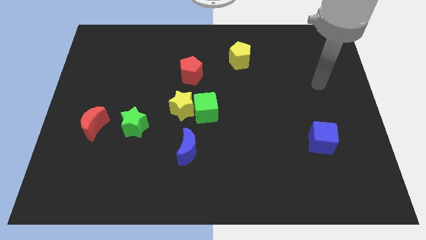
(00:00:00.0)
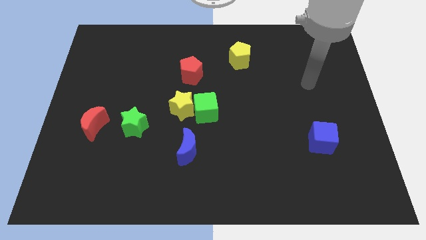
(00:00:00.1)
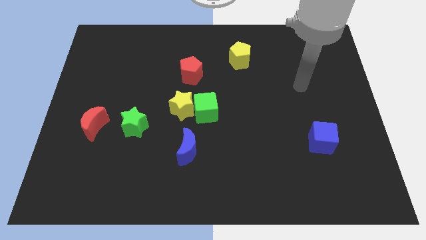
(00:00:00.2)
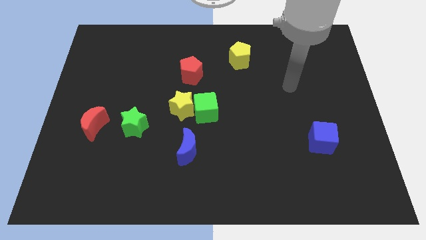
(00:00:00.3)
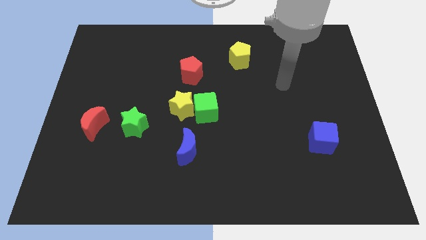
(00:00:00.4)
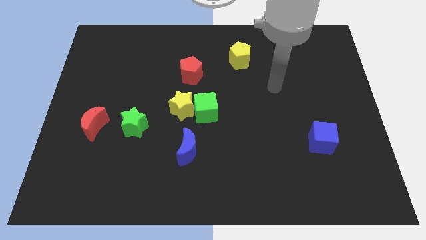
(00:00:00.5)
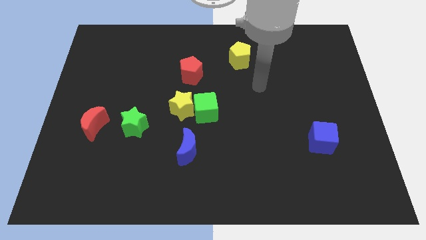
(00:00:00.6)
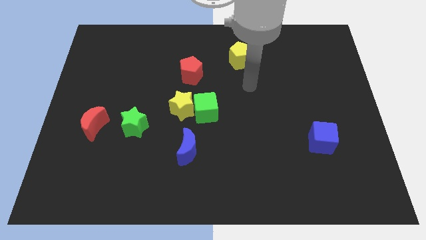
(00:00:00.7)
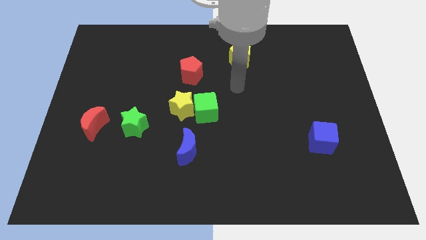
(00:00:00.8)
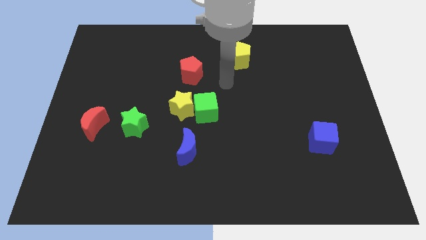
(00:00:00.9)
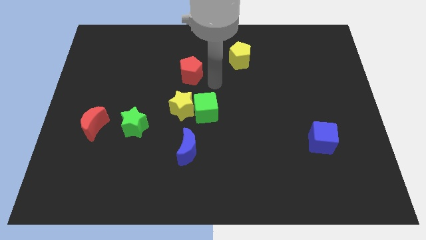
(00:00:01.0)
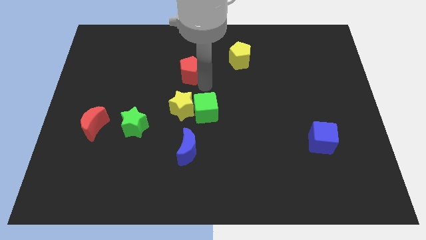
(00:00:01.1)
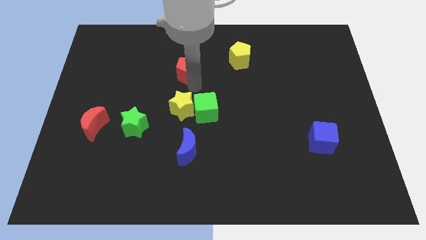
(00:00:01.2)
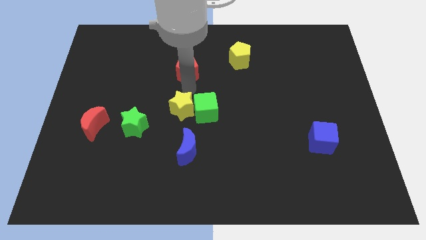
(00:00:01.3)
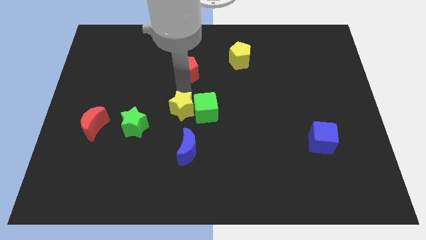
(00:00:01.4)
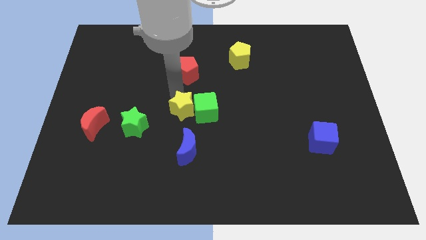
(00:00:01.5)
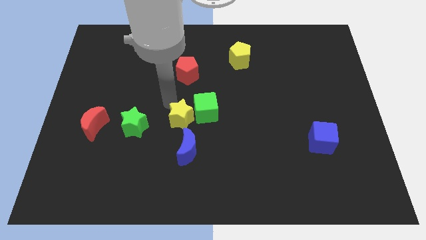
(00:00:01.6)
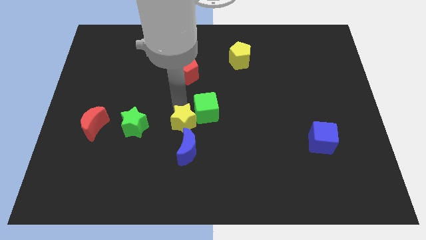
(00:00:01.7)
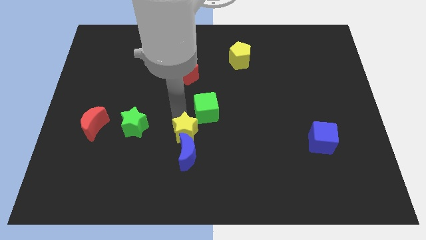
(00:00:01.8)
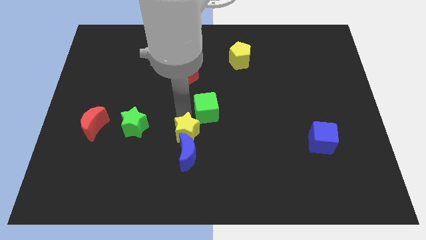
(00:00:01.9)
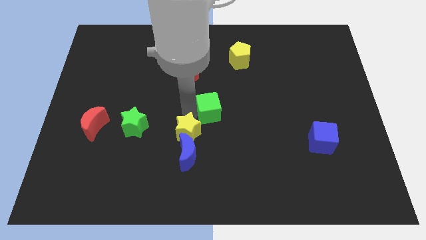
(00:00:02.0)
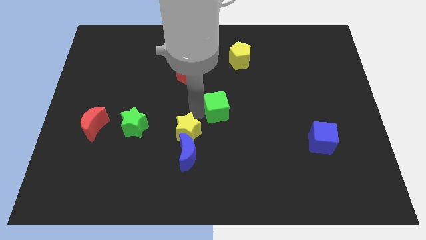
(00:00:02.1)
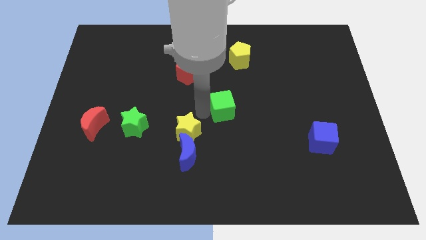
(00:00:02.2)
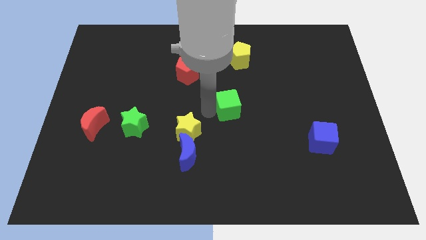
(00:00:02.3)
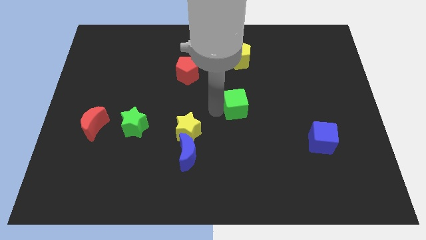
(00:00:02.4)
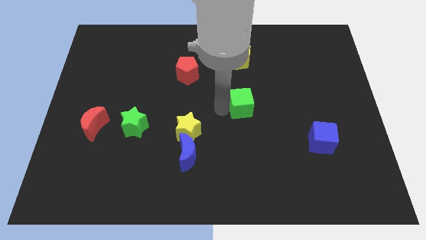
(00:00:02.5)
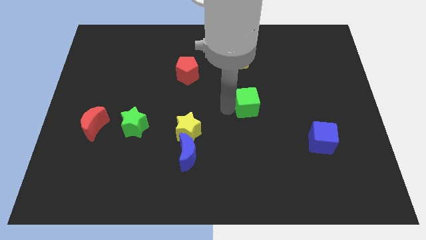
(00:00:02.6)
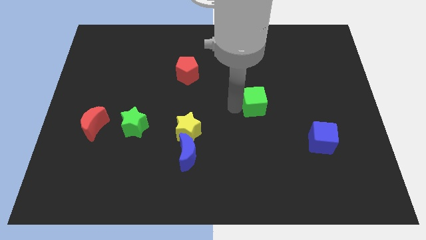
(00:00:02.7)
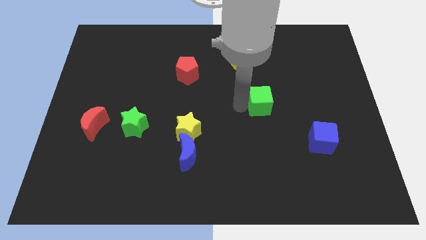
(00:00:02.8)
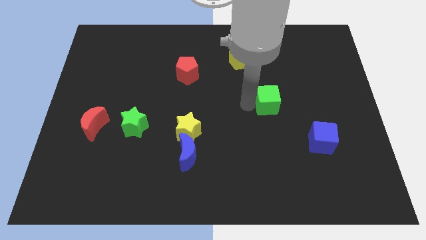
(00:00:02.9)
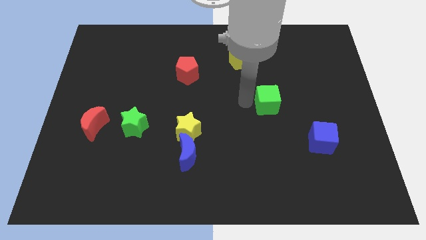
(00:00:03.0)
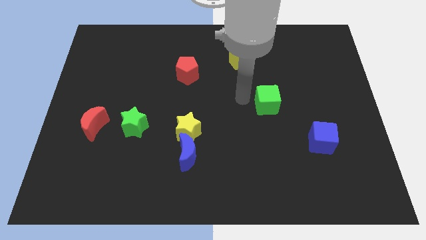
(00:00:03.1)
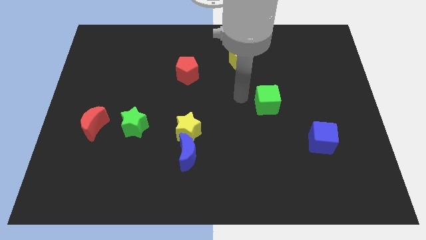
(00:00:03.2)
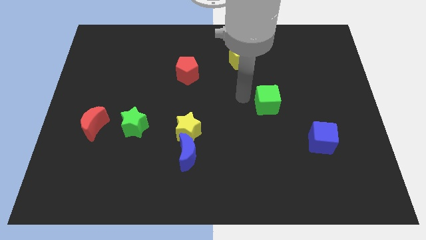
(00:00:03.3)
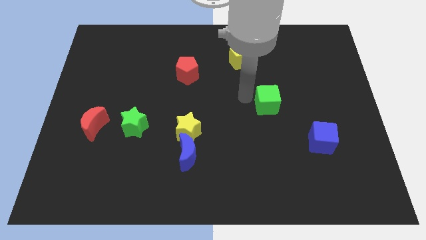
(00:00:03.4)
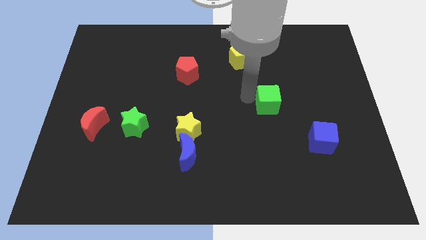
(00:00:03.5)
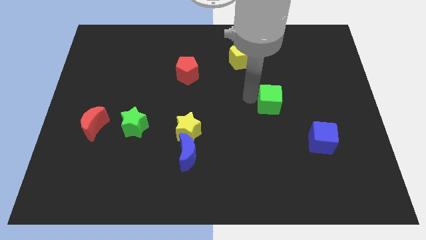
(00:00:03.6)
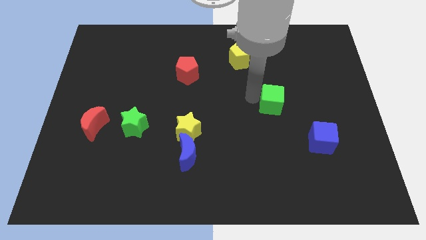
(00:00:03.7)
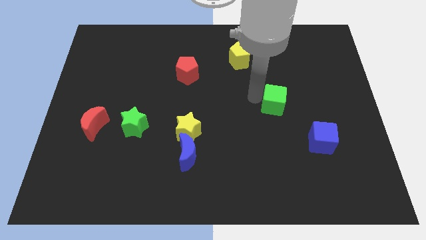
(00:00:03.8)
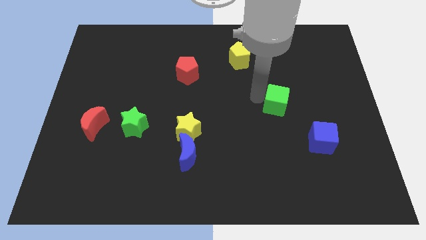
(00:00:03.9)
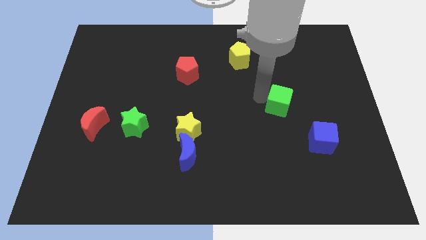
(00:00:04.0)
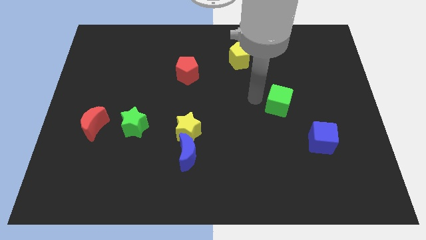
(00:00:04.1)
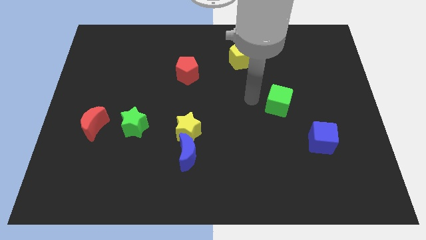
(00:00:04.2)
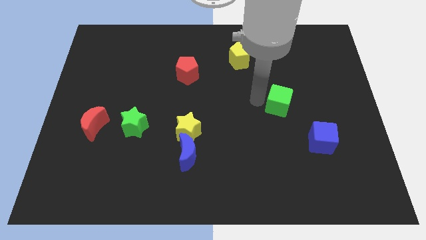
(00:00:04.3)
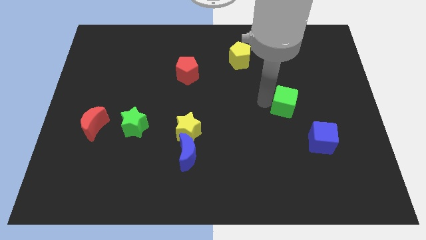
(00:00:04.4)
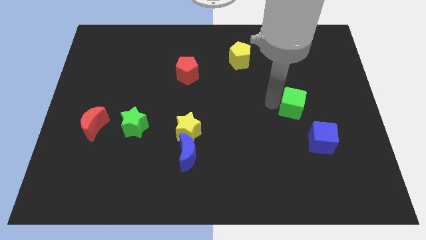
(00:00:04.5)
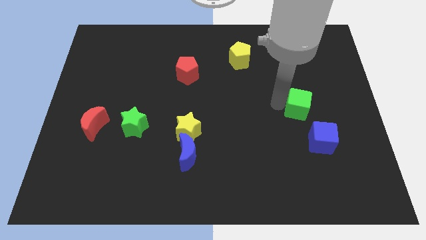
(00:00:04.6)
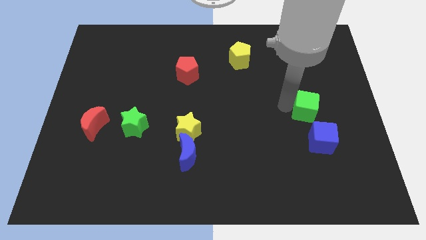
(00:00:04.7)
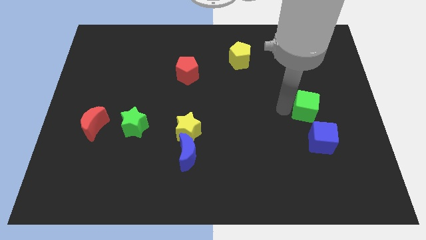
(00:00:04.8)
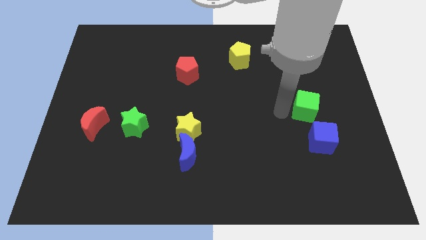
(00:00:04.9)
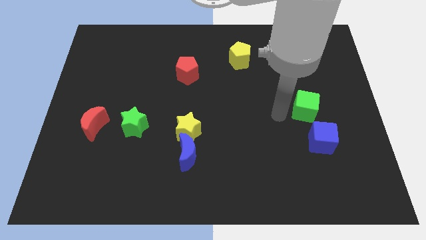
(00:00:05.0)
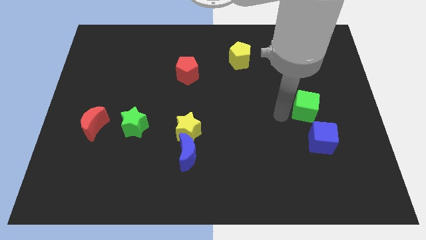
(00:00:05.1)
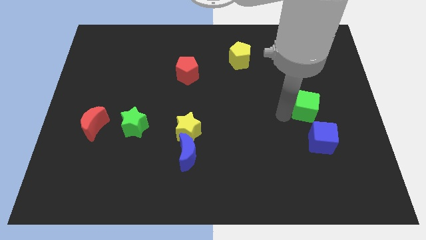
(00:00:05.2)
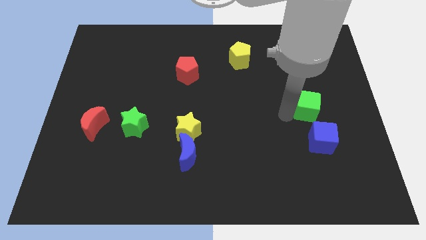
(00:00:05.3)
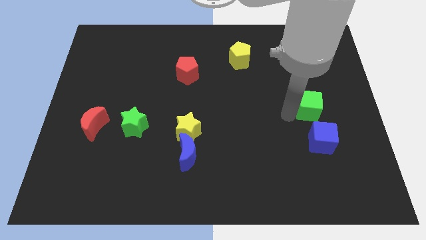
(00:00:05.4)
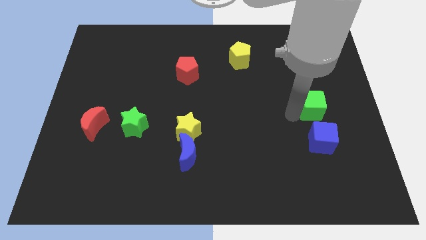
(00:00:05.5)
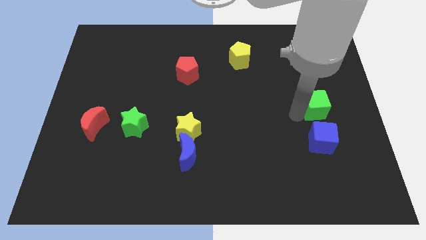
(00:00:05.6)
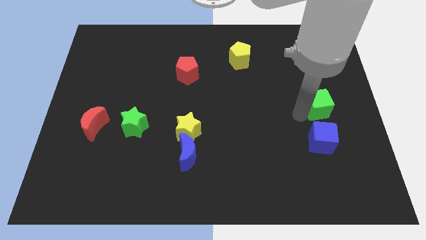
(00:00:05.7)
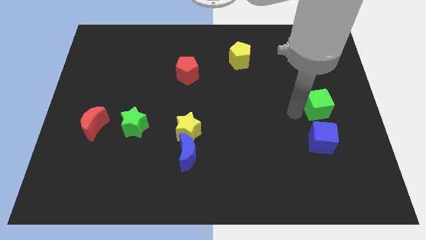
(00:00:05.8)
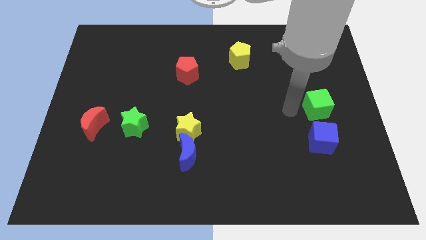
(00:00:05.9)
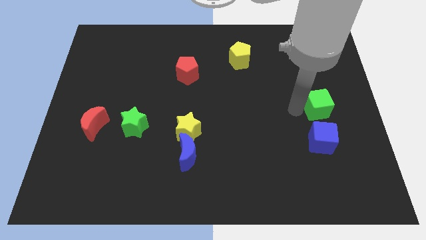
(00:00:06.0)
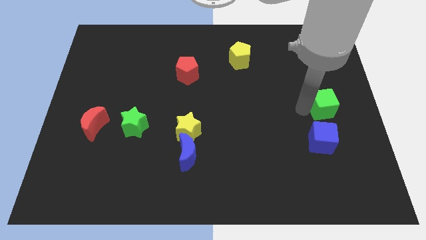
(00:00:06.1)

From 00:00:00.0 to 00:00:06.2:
put the green cube to the right side of the board
